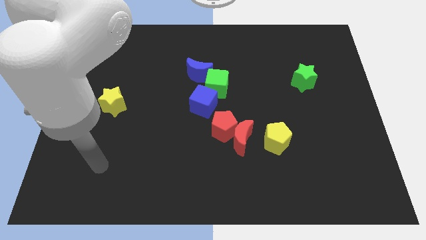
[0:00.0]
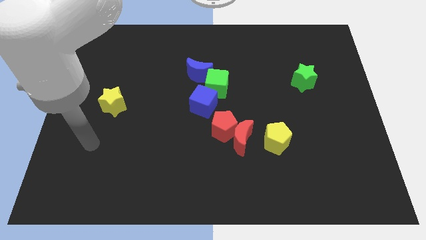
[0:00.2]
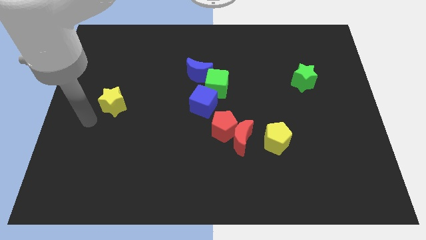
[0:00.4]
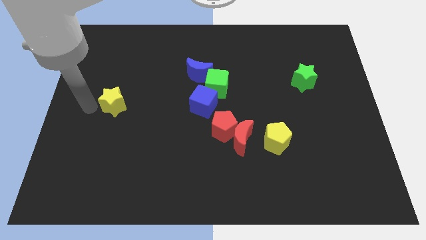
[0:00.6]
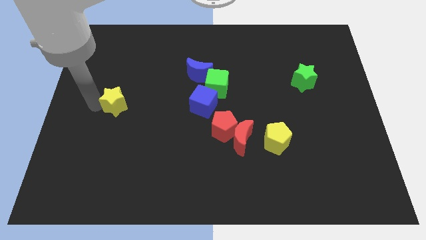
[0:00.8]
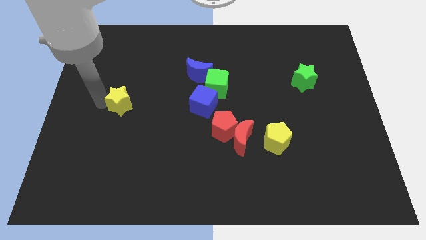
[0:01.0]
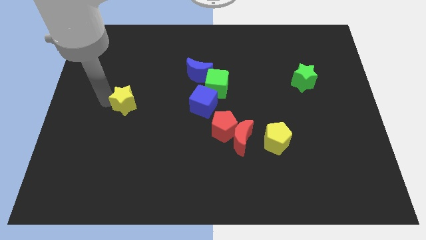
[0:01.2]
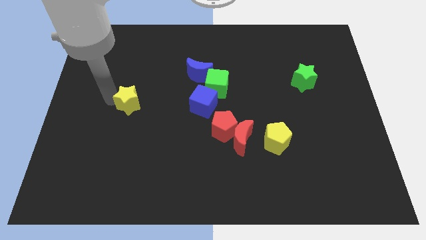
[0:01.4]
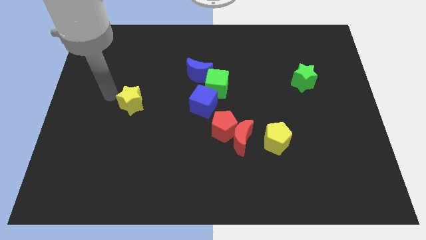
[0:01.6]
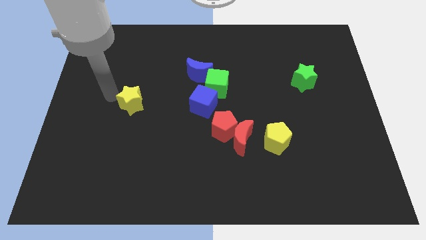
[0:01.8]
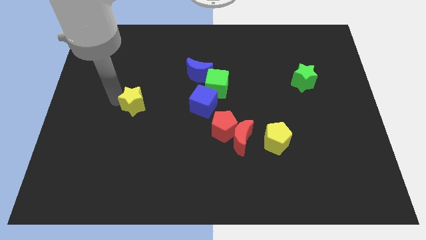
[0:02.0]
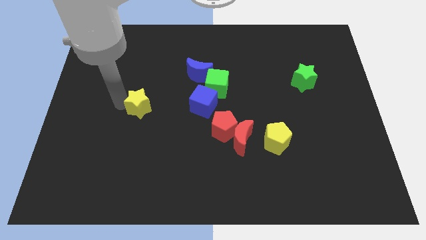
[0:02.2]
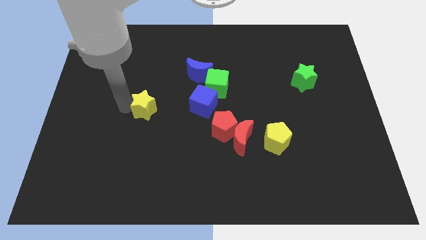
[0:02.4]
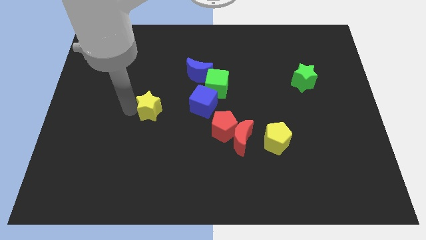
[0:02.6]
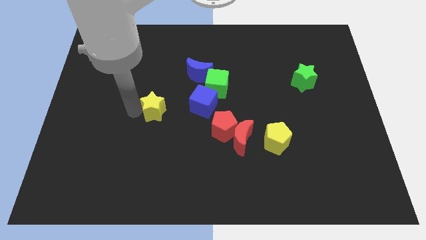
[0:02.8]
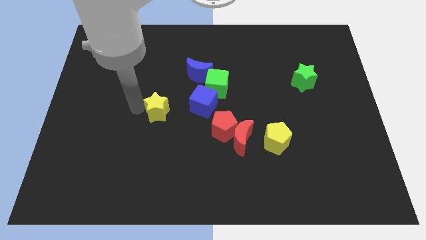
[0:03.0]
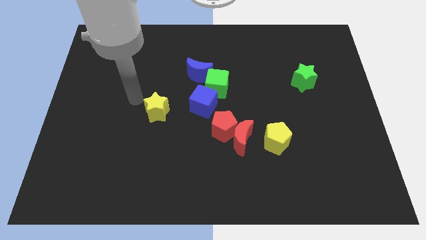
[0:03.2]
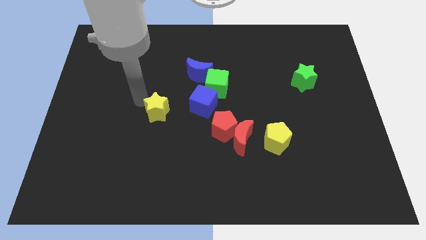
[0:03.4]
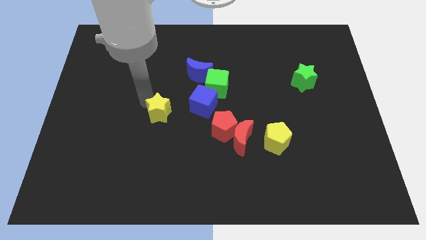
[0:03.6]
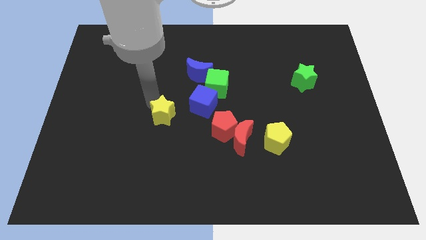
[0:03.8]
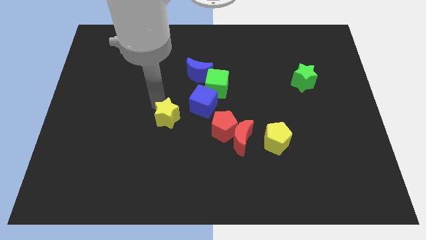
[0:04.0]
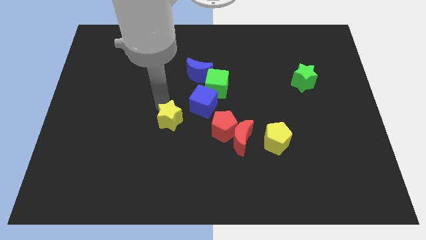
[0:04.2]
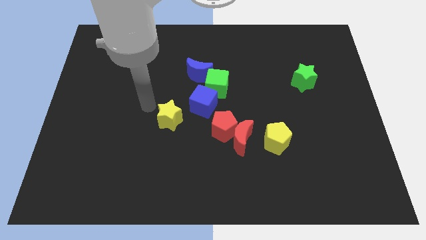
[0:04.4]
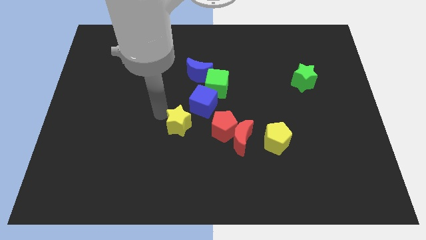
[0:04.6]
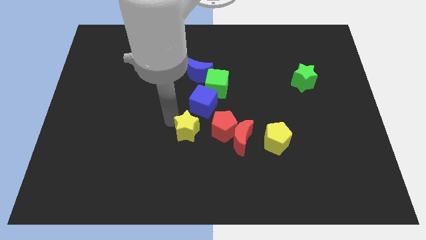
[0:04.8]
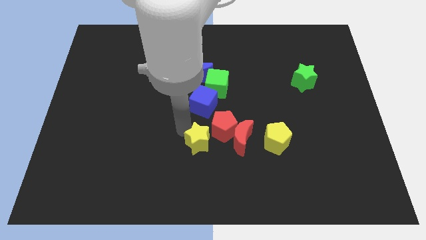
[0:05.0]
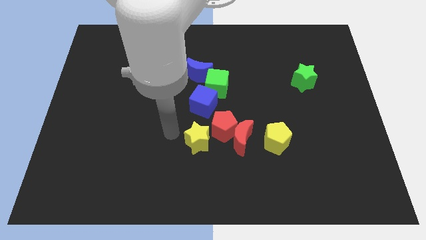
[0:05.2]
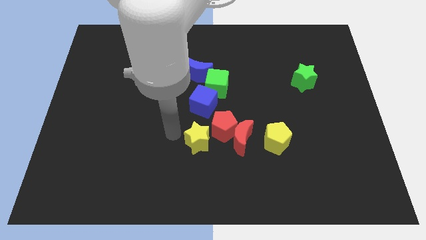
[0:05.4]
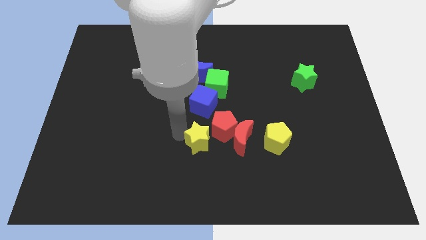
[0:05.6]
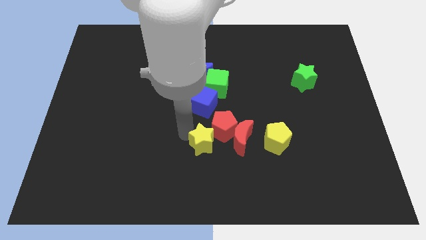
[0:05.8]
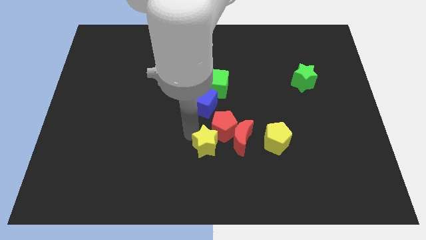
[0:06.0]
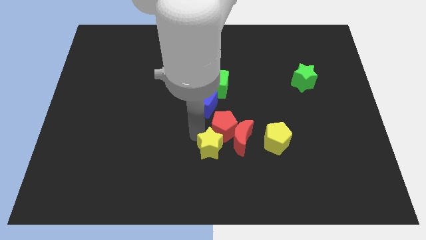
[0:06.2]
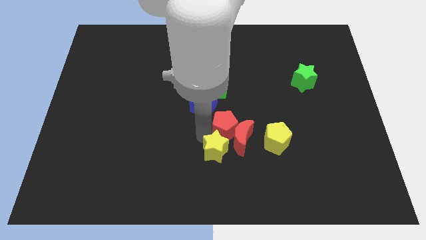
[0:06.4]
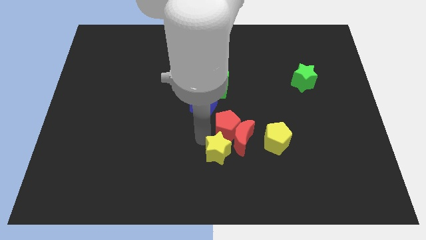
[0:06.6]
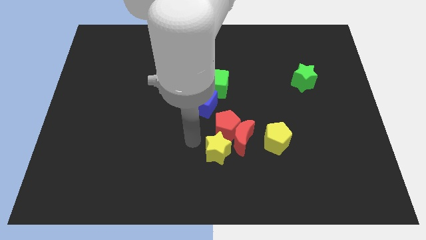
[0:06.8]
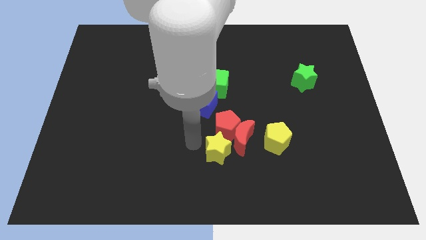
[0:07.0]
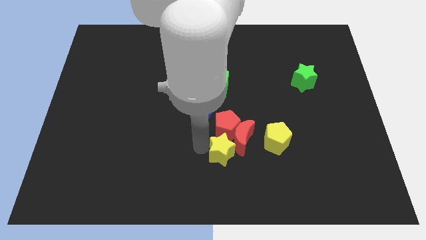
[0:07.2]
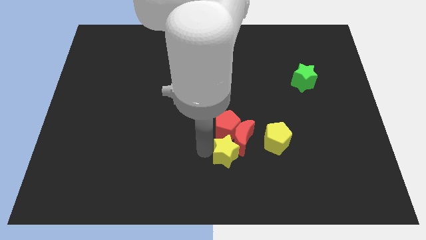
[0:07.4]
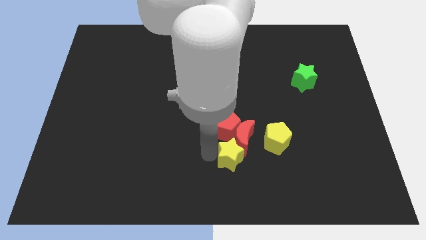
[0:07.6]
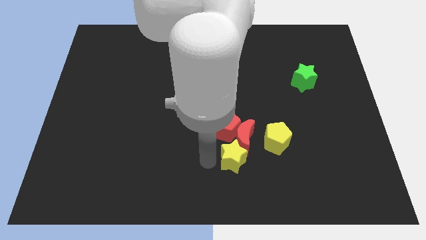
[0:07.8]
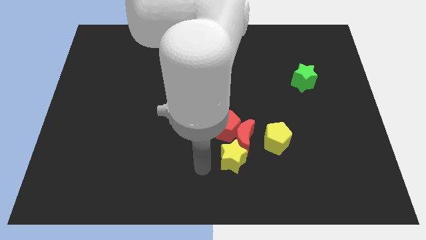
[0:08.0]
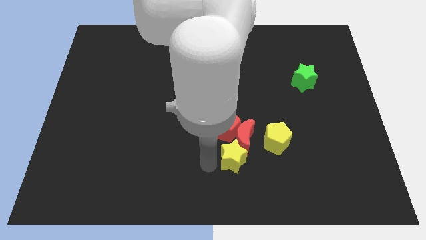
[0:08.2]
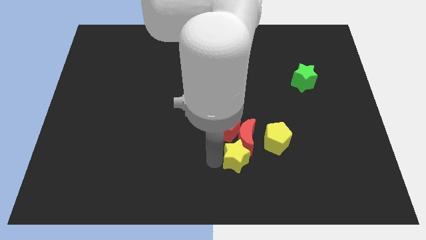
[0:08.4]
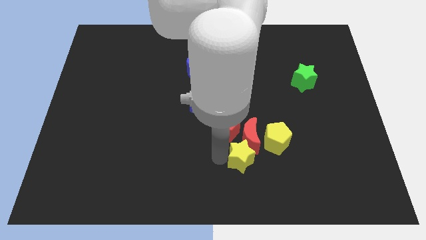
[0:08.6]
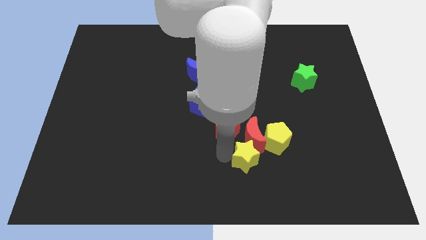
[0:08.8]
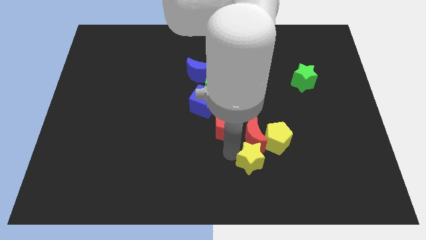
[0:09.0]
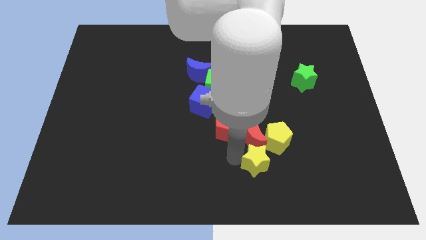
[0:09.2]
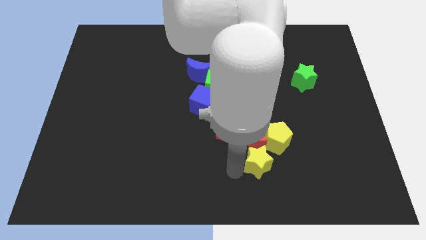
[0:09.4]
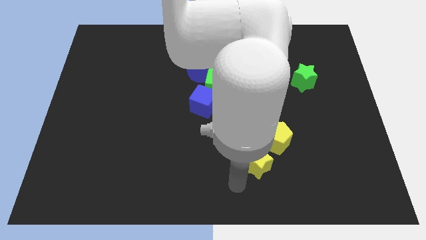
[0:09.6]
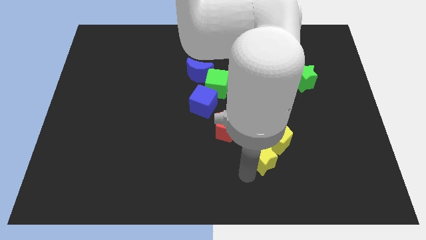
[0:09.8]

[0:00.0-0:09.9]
move the yellow star to the yellow pentagon

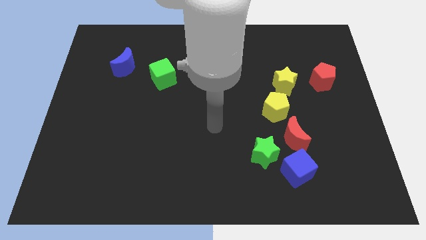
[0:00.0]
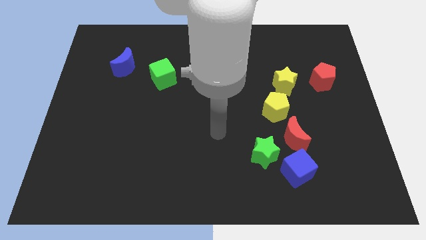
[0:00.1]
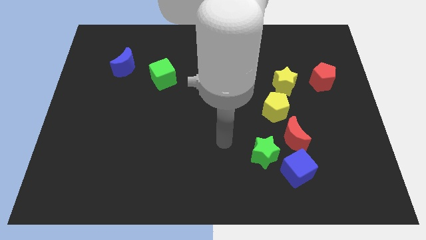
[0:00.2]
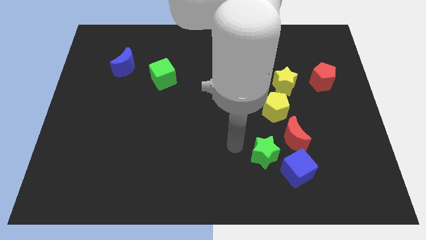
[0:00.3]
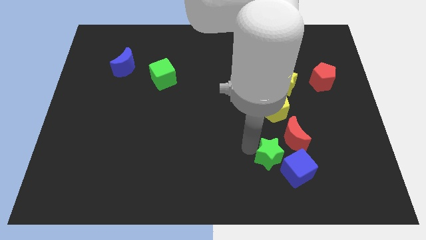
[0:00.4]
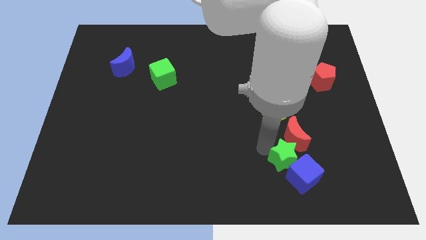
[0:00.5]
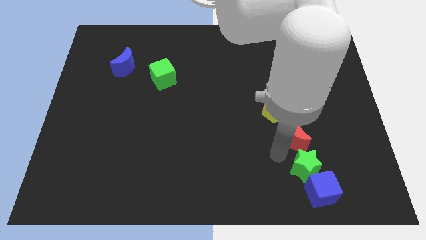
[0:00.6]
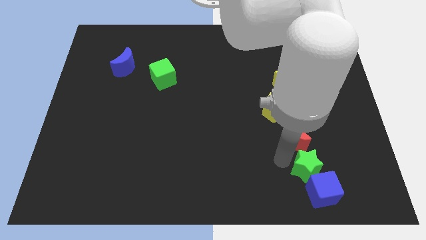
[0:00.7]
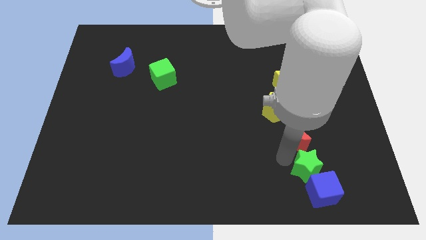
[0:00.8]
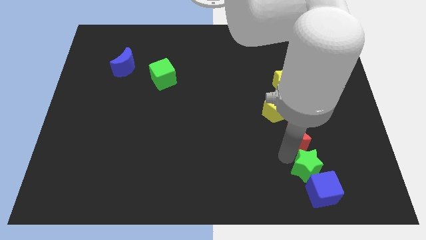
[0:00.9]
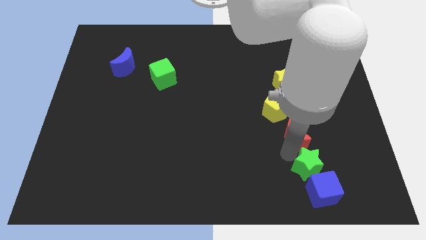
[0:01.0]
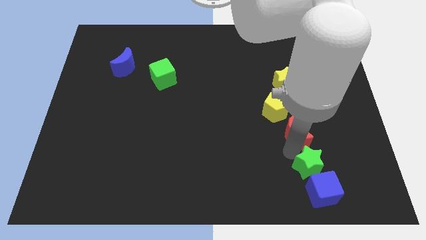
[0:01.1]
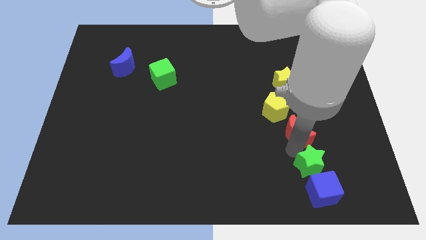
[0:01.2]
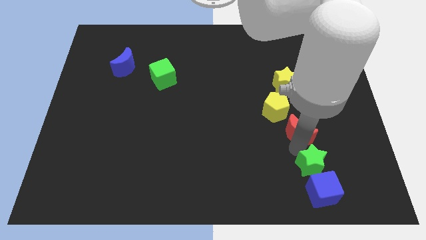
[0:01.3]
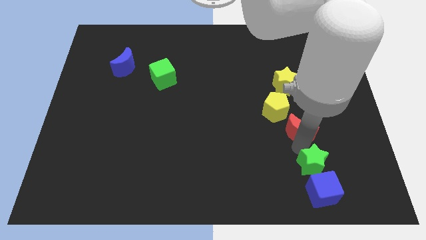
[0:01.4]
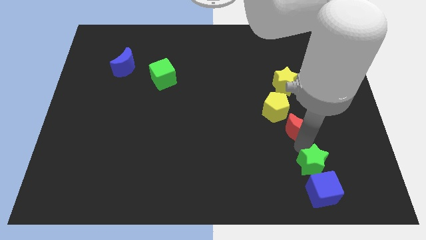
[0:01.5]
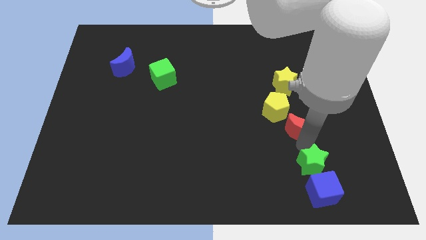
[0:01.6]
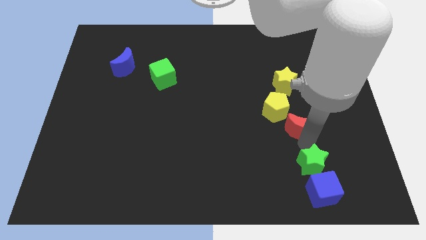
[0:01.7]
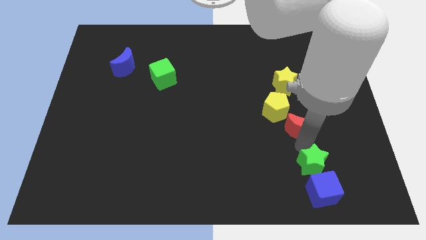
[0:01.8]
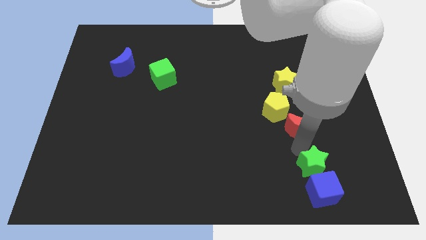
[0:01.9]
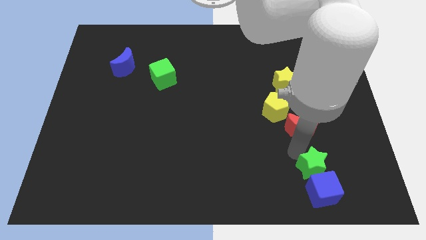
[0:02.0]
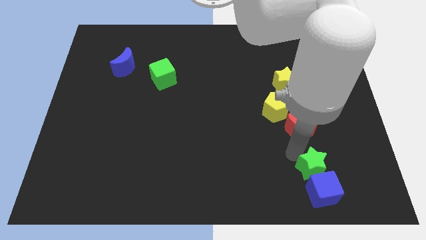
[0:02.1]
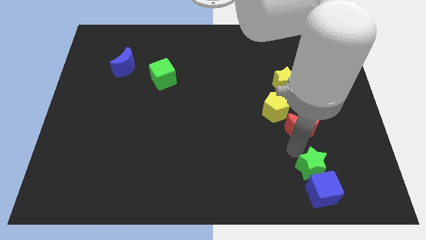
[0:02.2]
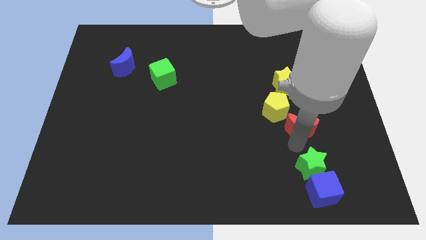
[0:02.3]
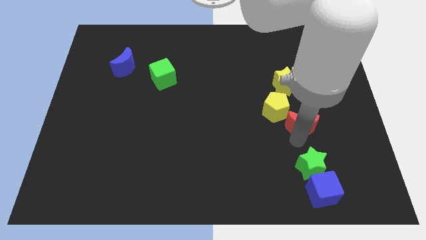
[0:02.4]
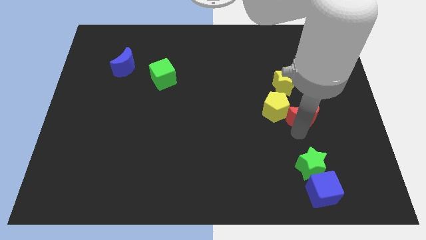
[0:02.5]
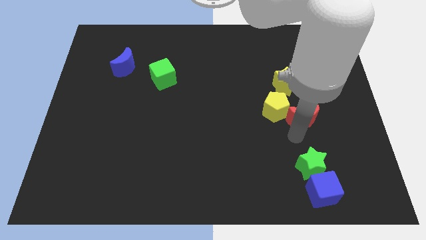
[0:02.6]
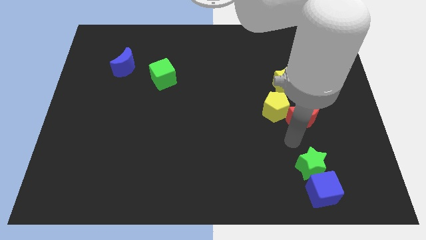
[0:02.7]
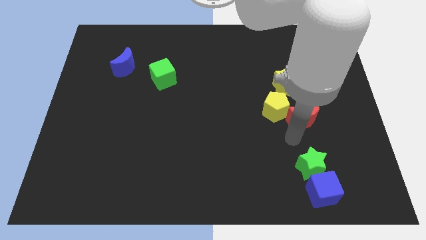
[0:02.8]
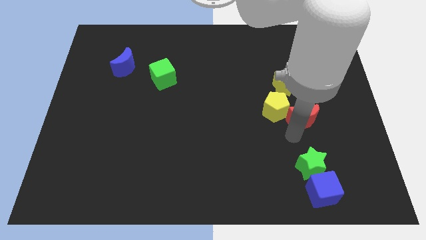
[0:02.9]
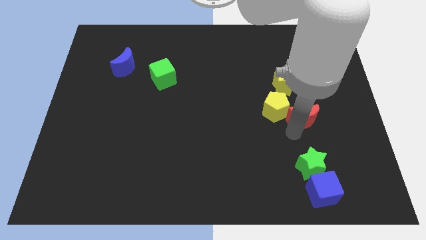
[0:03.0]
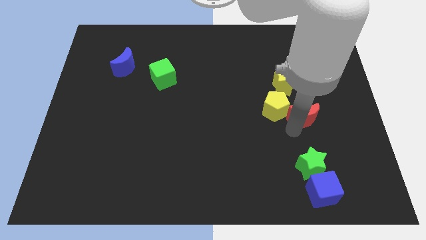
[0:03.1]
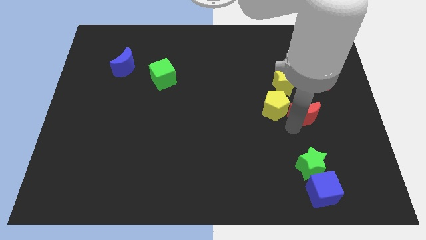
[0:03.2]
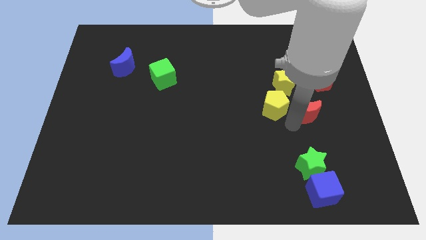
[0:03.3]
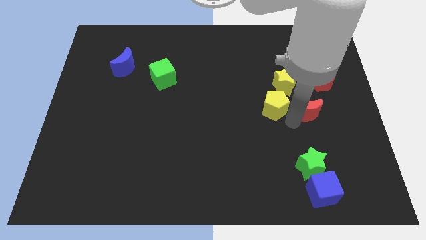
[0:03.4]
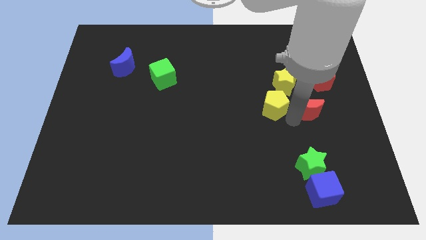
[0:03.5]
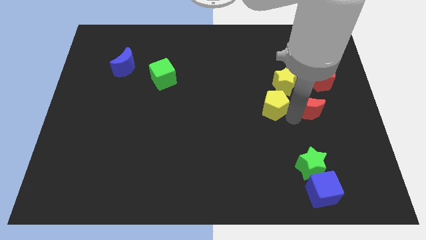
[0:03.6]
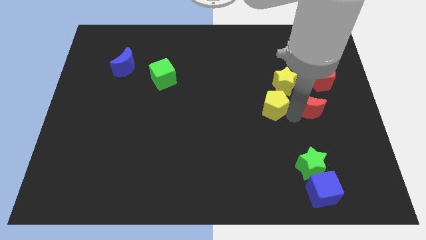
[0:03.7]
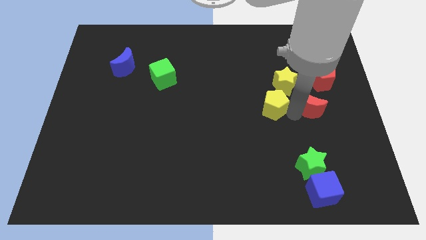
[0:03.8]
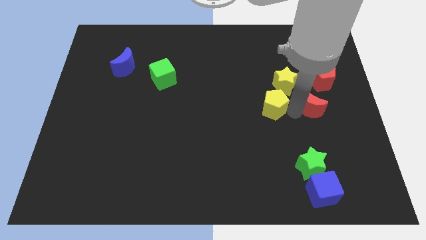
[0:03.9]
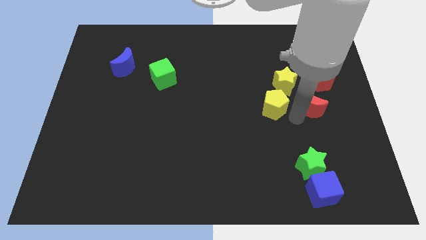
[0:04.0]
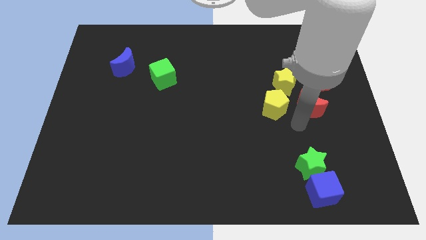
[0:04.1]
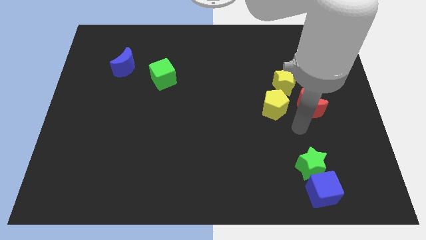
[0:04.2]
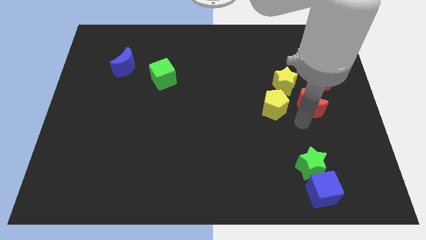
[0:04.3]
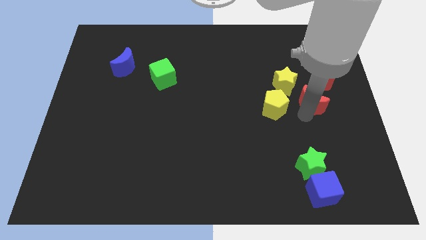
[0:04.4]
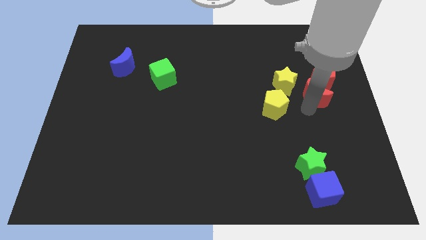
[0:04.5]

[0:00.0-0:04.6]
push the red moon close to the red pentagon
